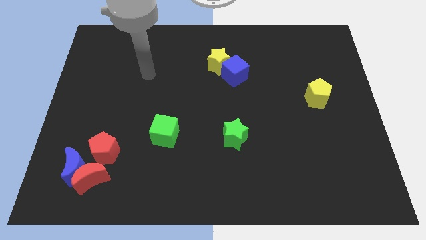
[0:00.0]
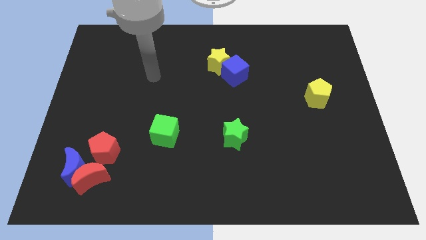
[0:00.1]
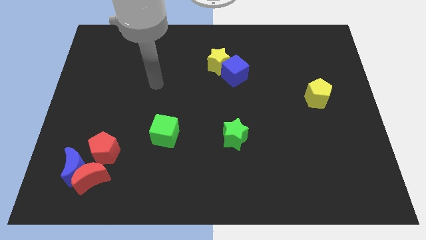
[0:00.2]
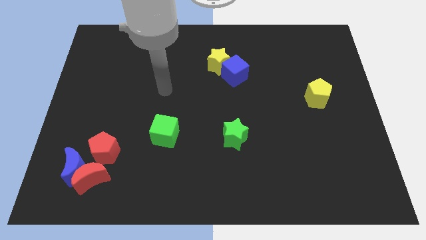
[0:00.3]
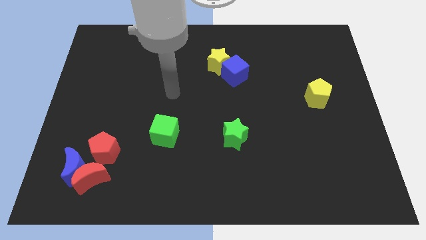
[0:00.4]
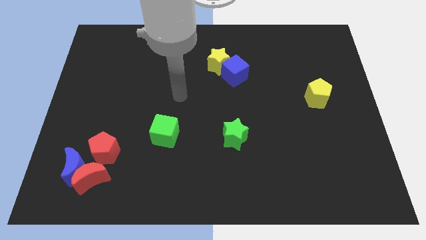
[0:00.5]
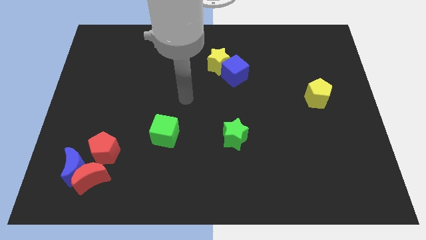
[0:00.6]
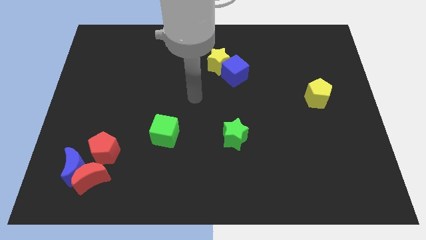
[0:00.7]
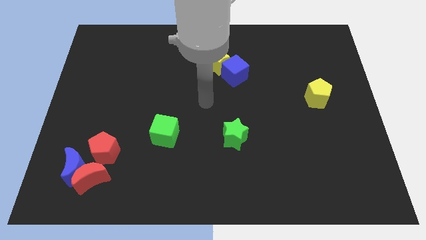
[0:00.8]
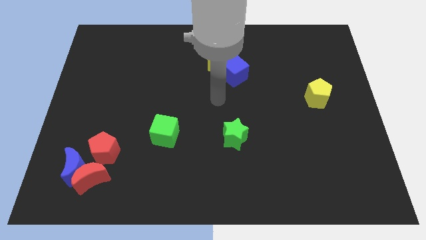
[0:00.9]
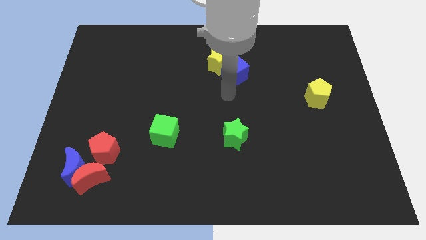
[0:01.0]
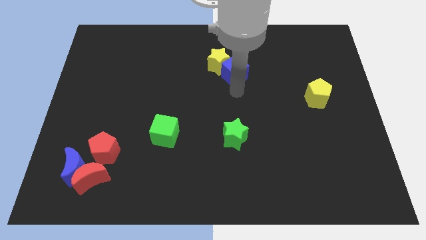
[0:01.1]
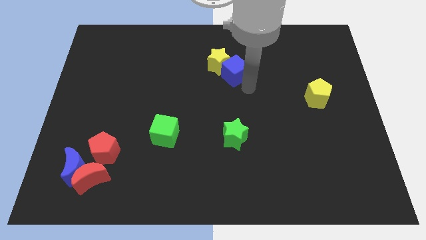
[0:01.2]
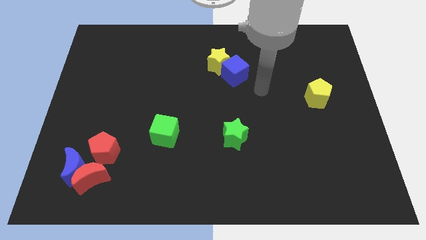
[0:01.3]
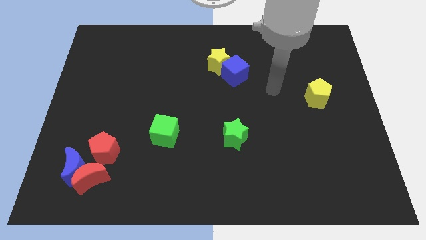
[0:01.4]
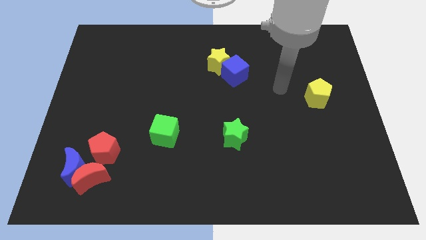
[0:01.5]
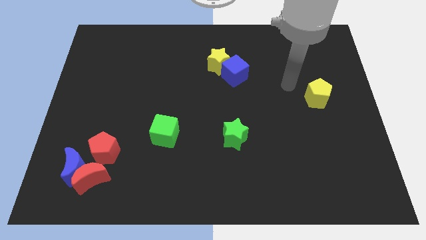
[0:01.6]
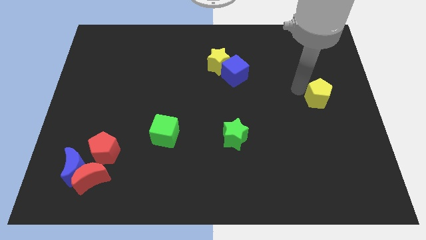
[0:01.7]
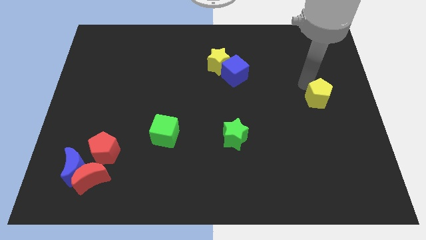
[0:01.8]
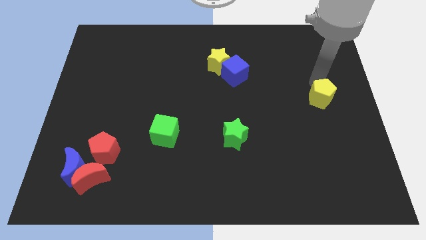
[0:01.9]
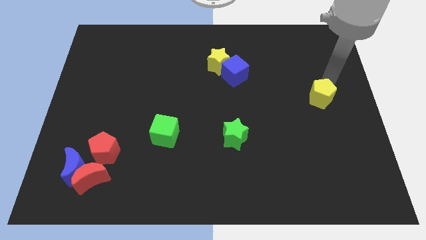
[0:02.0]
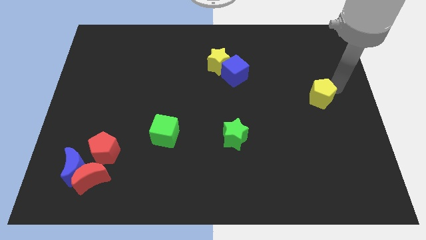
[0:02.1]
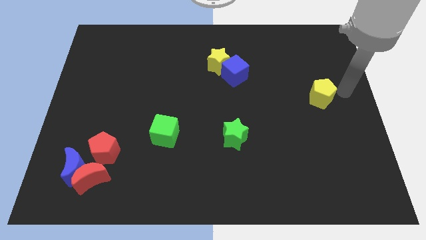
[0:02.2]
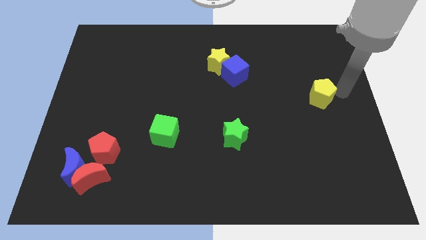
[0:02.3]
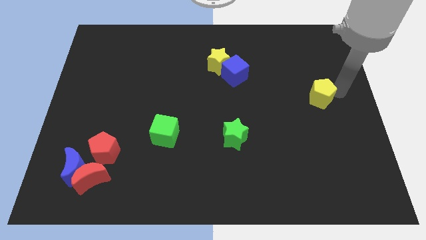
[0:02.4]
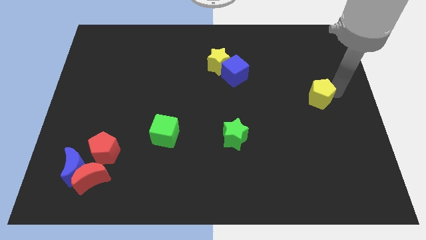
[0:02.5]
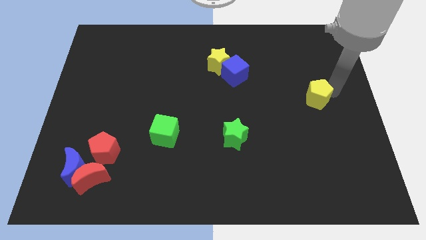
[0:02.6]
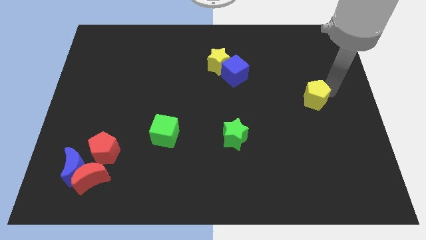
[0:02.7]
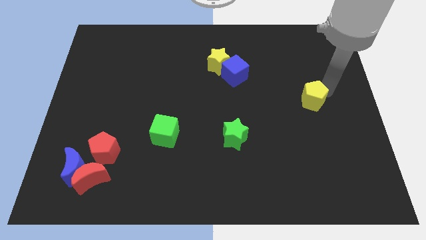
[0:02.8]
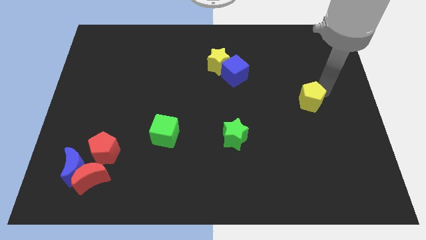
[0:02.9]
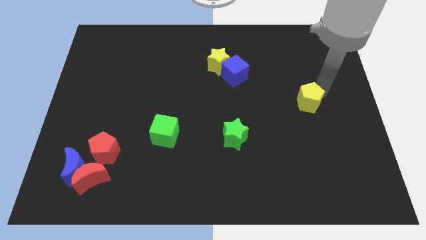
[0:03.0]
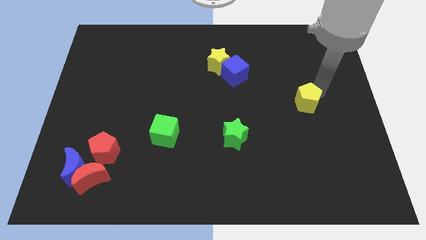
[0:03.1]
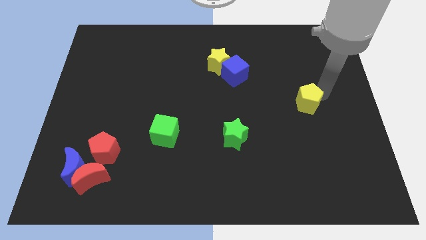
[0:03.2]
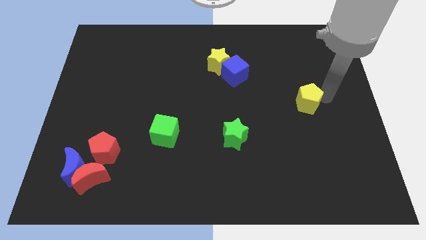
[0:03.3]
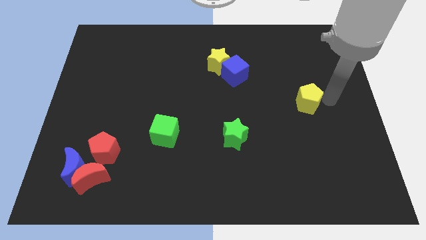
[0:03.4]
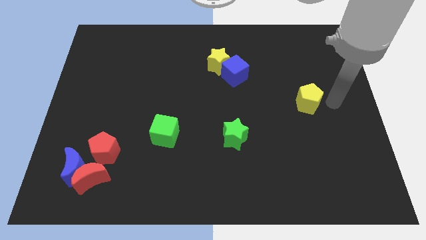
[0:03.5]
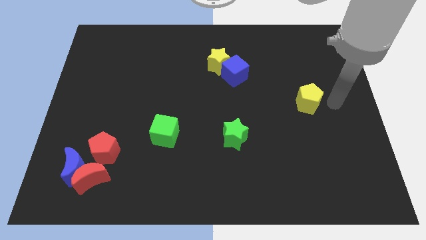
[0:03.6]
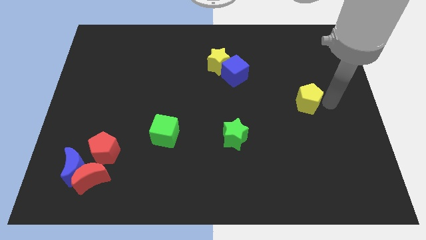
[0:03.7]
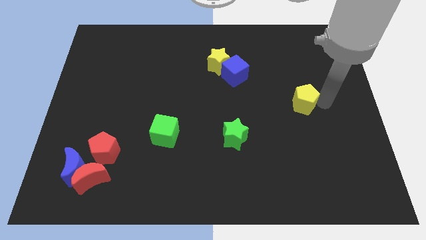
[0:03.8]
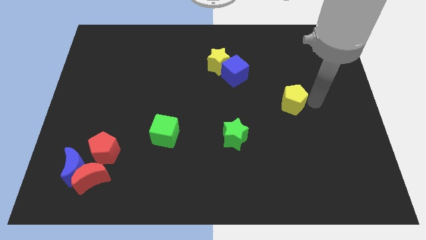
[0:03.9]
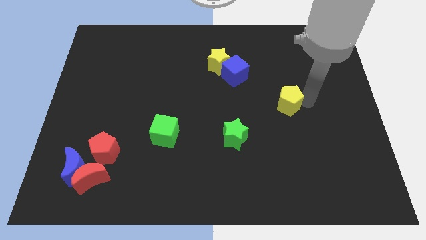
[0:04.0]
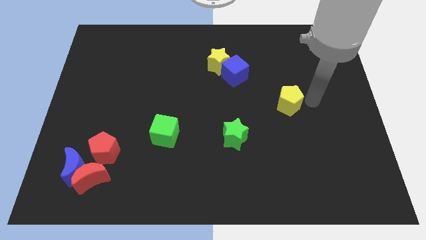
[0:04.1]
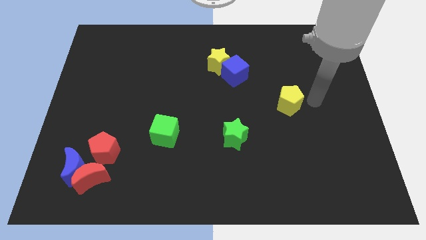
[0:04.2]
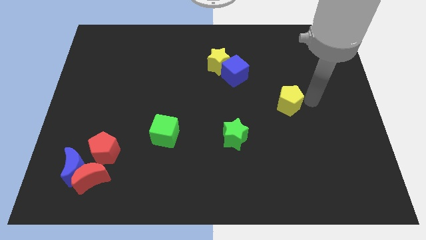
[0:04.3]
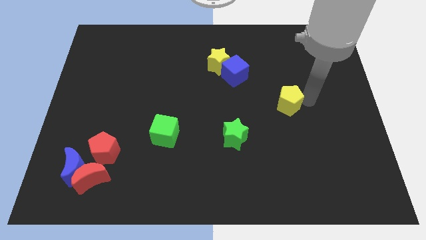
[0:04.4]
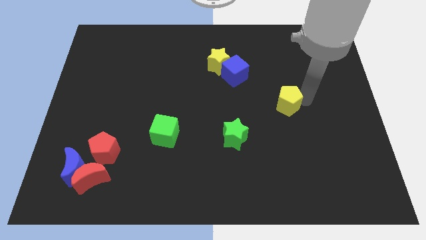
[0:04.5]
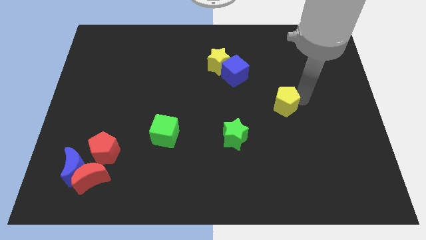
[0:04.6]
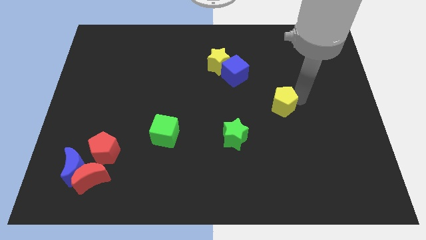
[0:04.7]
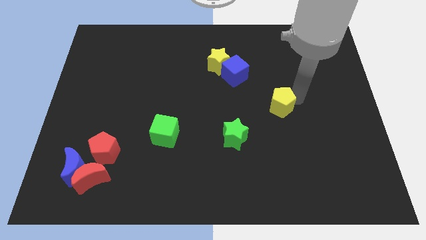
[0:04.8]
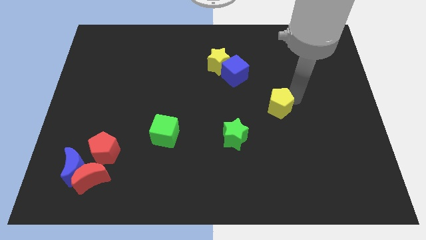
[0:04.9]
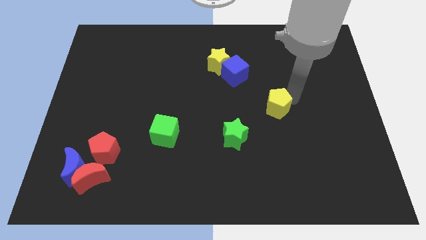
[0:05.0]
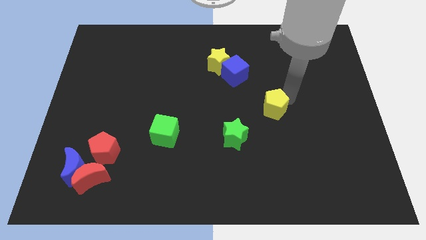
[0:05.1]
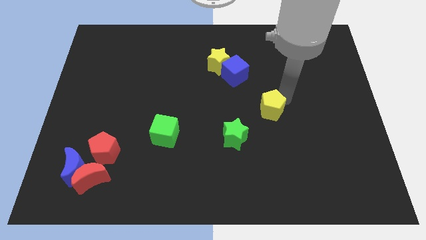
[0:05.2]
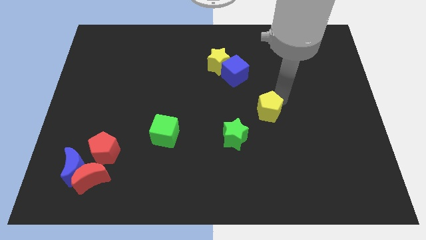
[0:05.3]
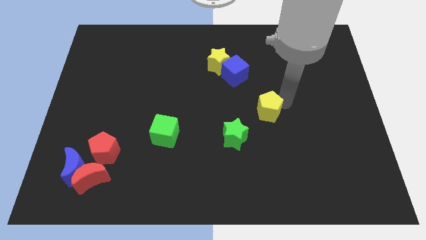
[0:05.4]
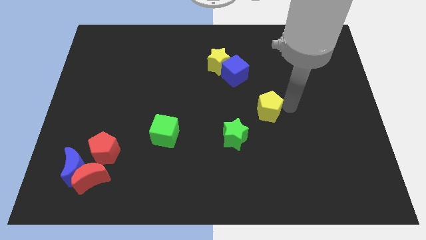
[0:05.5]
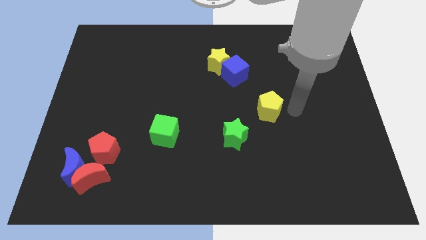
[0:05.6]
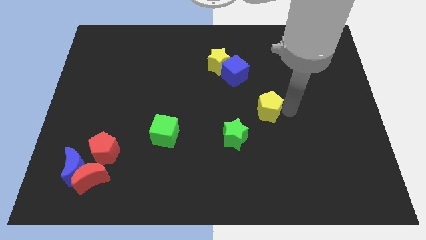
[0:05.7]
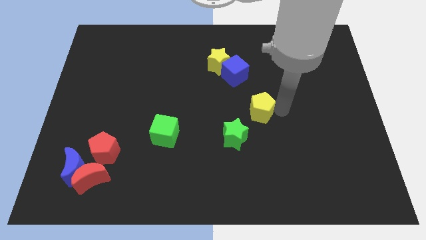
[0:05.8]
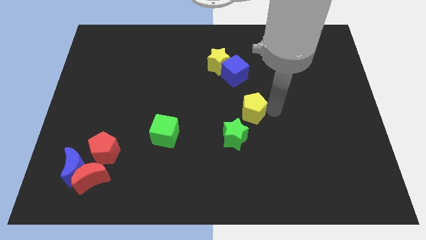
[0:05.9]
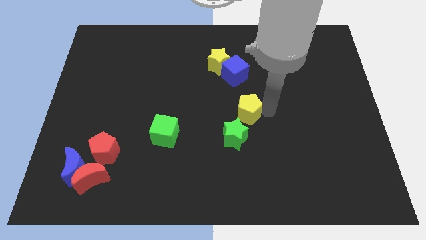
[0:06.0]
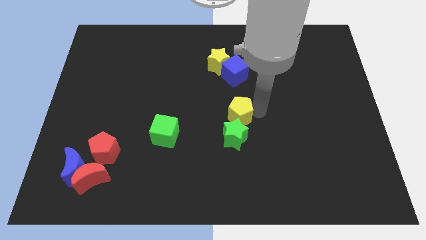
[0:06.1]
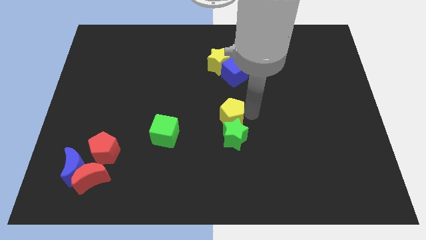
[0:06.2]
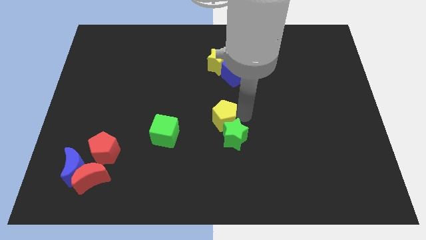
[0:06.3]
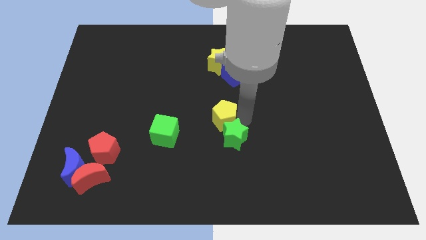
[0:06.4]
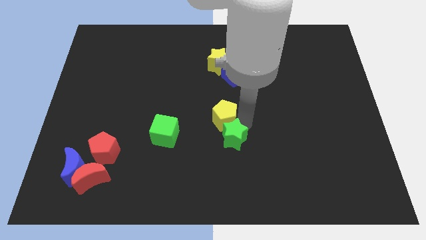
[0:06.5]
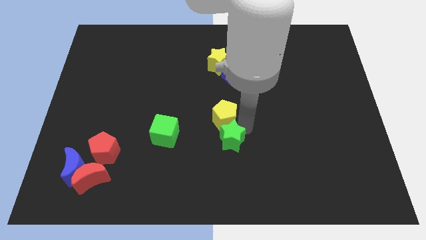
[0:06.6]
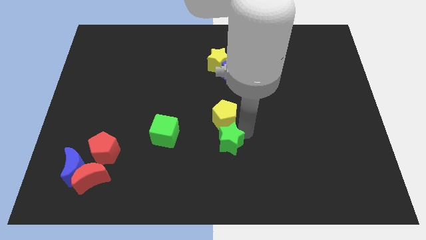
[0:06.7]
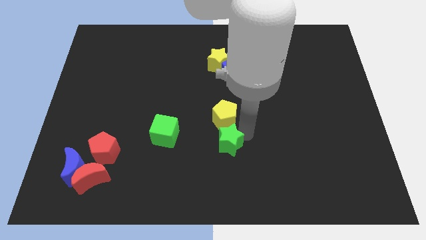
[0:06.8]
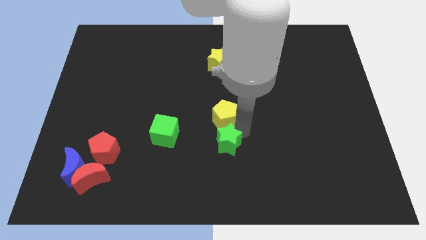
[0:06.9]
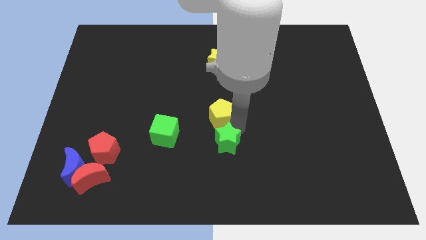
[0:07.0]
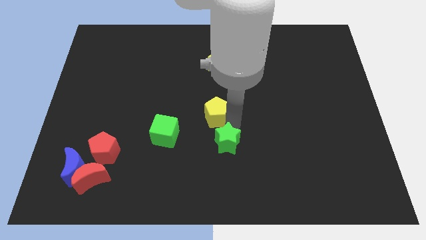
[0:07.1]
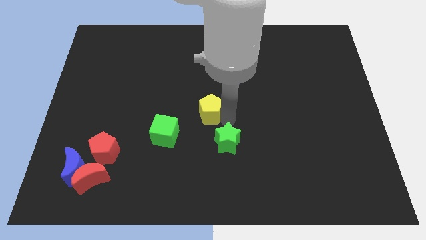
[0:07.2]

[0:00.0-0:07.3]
slide the yellow pentagon diagonally up and to the right of the green cube
